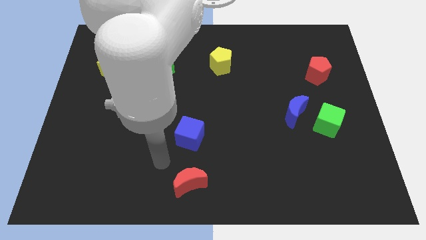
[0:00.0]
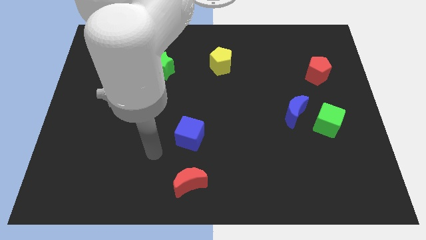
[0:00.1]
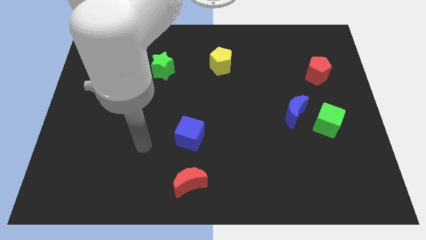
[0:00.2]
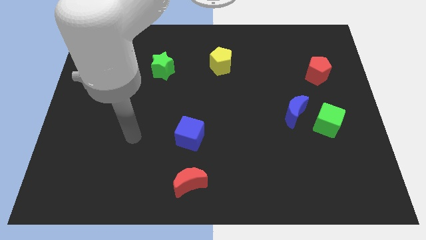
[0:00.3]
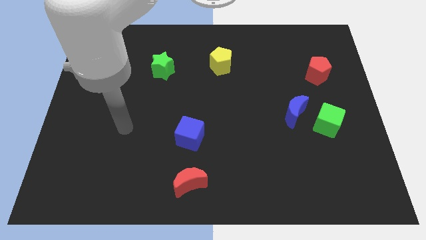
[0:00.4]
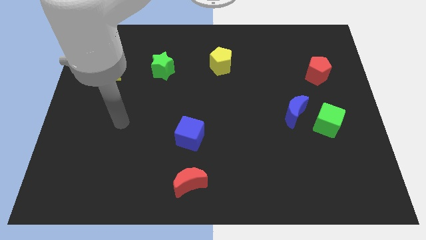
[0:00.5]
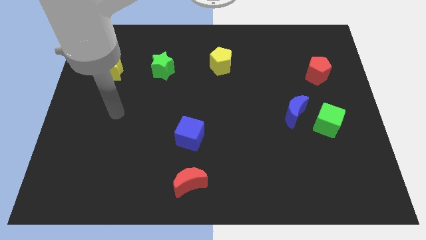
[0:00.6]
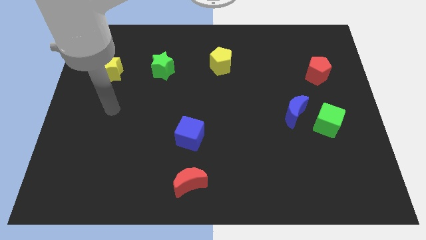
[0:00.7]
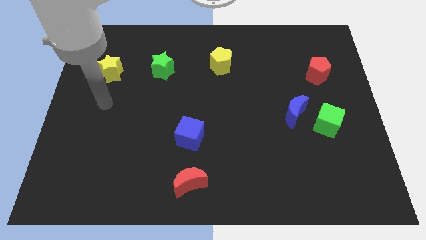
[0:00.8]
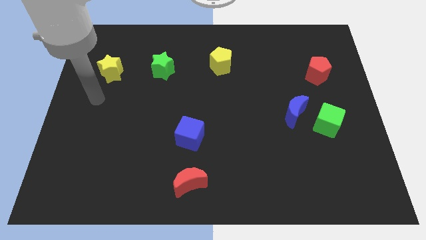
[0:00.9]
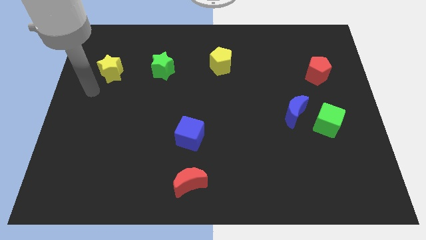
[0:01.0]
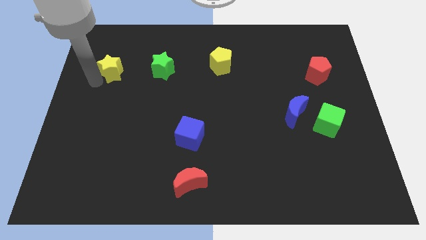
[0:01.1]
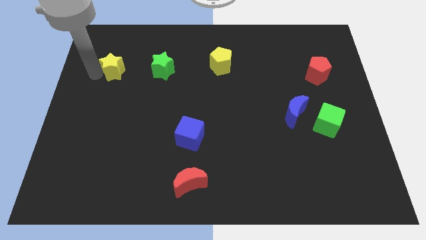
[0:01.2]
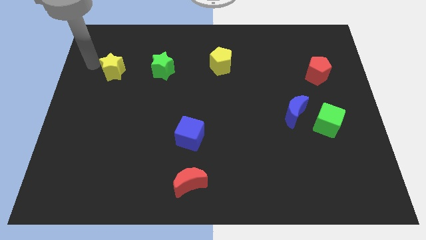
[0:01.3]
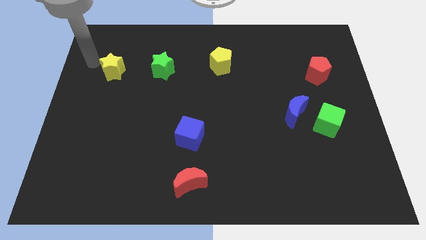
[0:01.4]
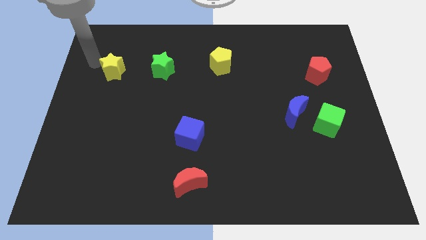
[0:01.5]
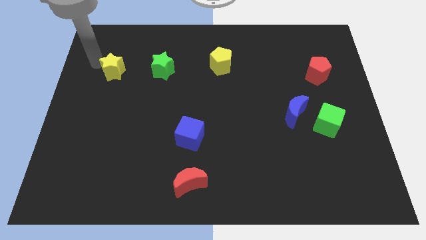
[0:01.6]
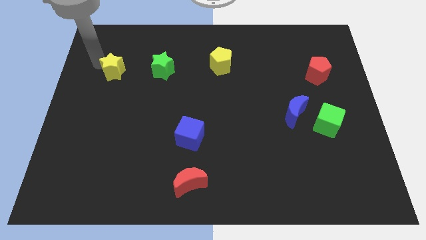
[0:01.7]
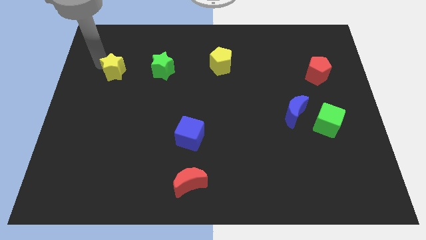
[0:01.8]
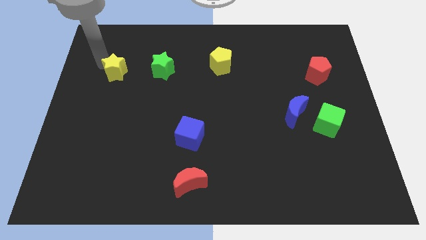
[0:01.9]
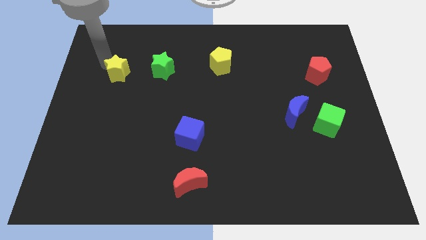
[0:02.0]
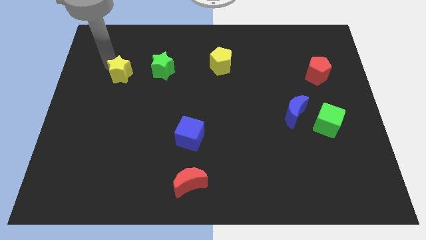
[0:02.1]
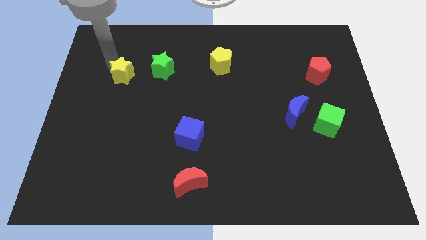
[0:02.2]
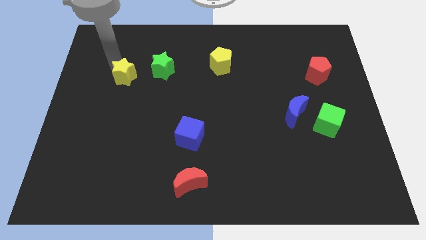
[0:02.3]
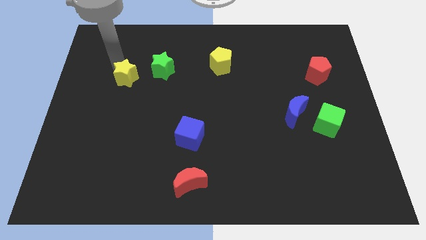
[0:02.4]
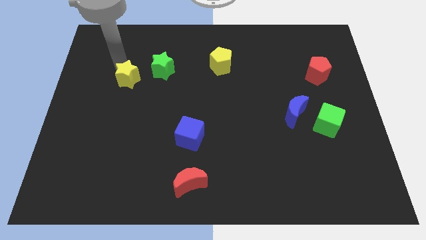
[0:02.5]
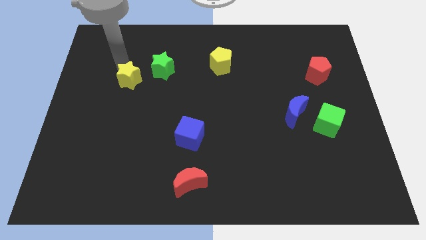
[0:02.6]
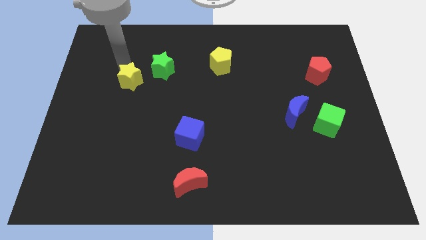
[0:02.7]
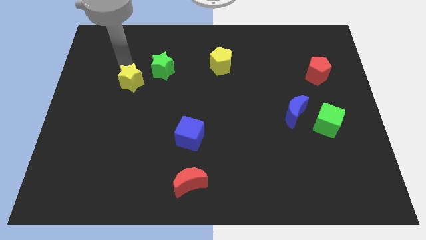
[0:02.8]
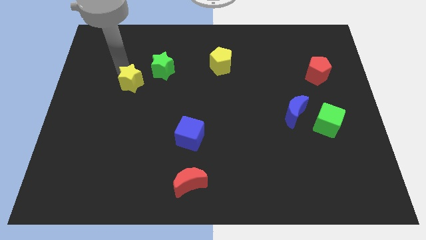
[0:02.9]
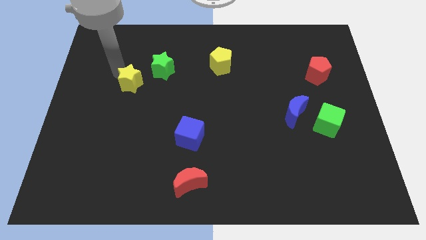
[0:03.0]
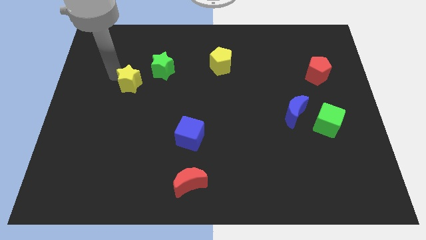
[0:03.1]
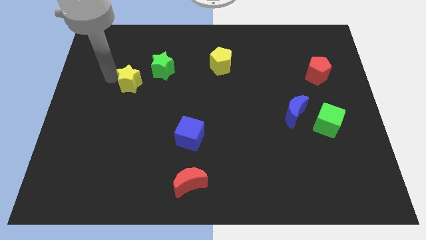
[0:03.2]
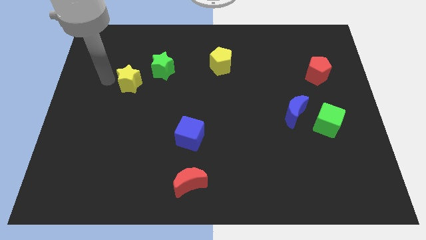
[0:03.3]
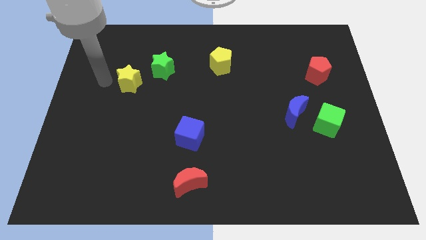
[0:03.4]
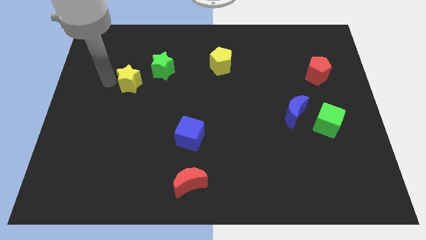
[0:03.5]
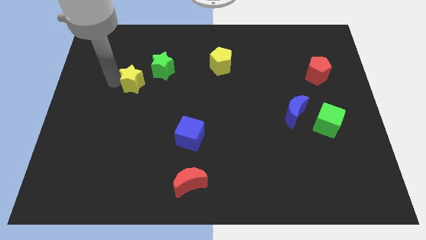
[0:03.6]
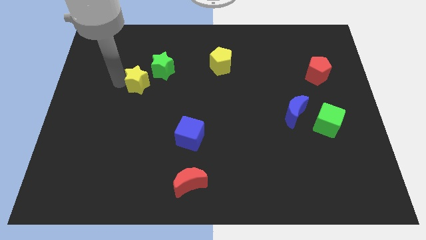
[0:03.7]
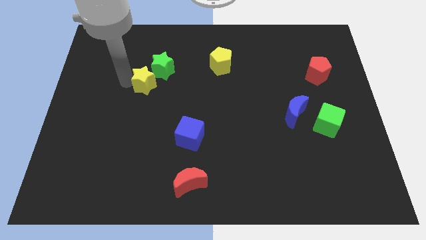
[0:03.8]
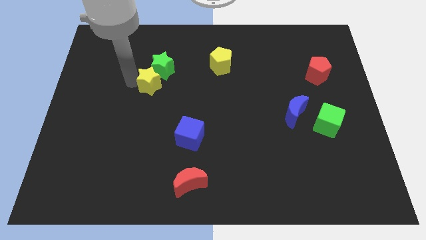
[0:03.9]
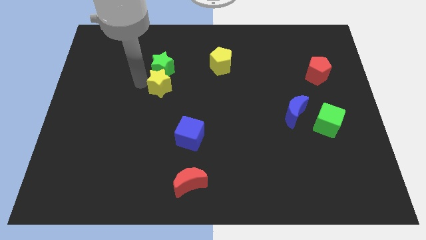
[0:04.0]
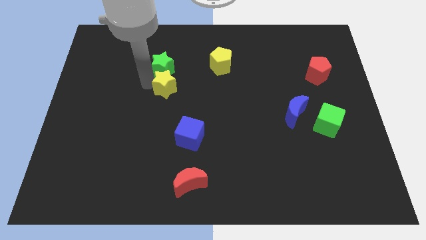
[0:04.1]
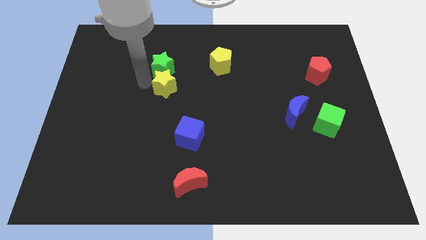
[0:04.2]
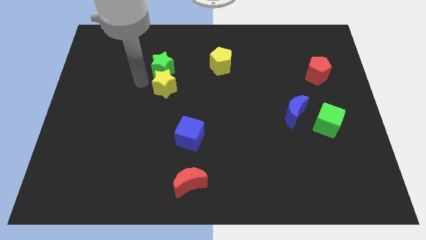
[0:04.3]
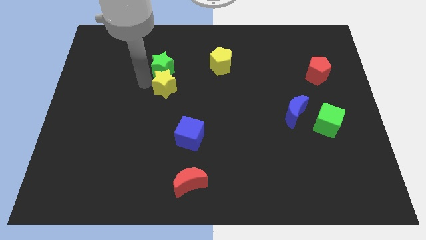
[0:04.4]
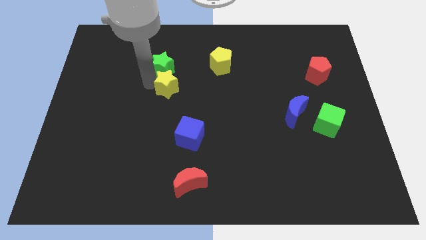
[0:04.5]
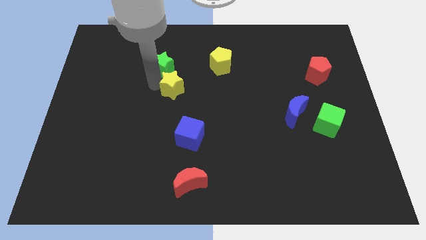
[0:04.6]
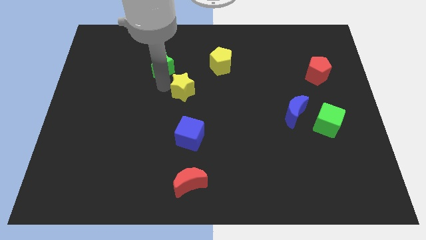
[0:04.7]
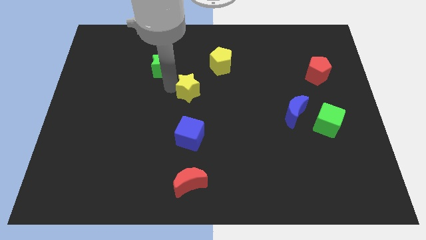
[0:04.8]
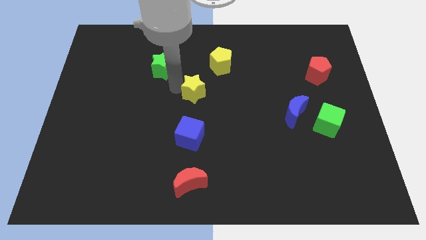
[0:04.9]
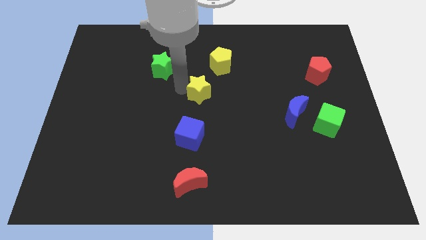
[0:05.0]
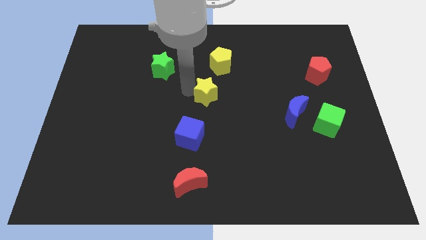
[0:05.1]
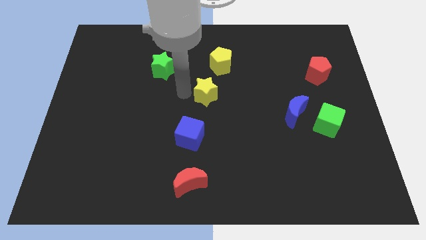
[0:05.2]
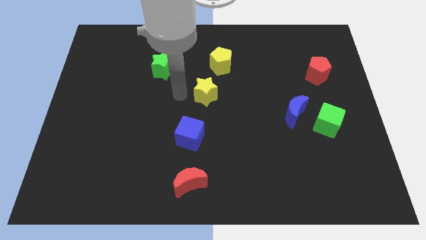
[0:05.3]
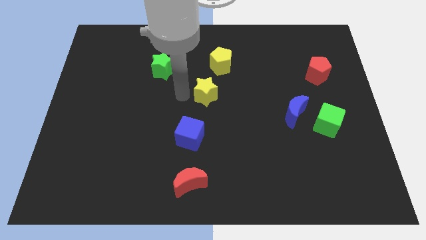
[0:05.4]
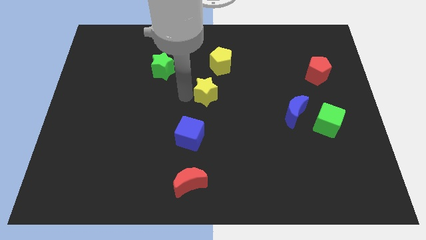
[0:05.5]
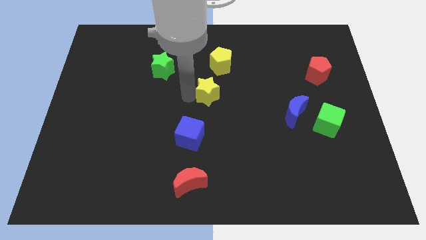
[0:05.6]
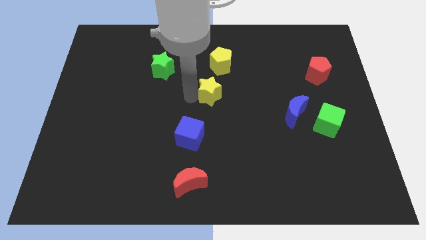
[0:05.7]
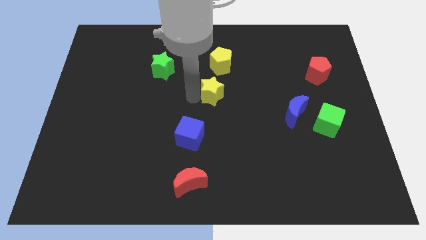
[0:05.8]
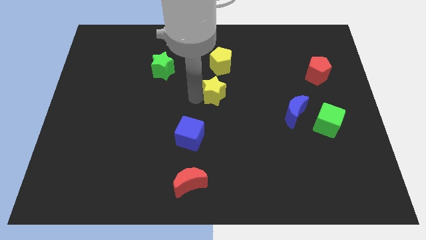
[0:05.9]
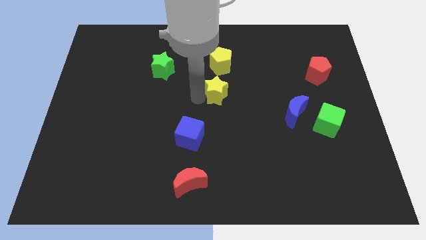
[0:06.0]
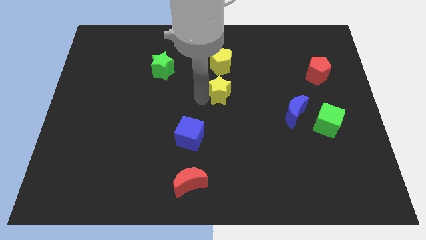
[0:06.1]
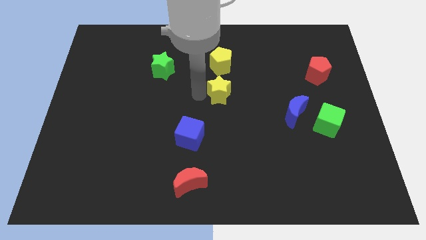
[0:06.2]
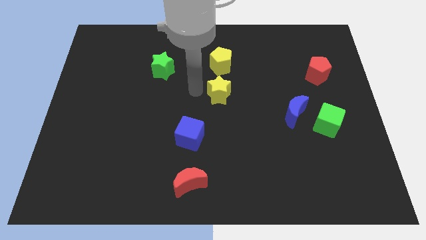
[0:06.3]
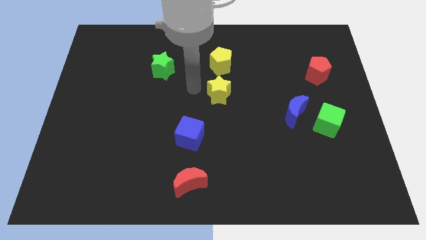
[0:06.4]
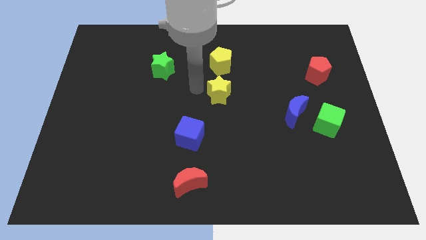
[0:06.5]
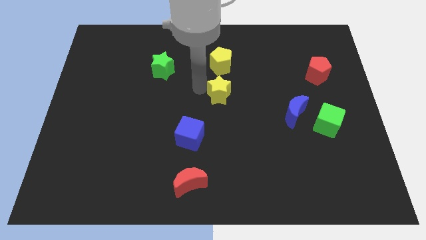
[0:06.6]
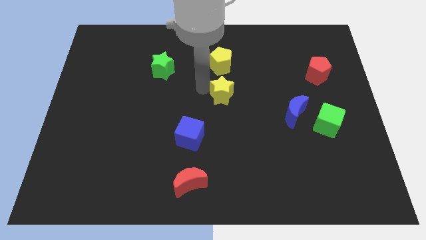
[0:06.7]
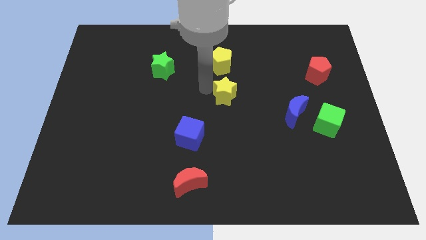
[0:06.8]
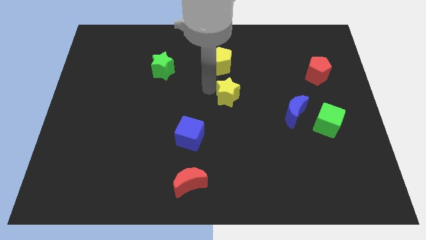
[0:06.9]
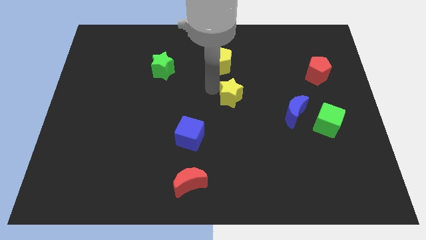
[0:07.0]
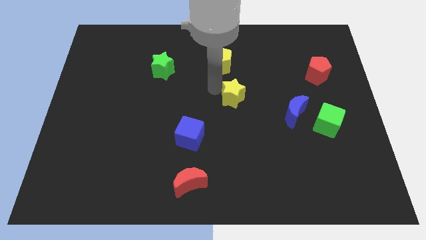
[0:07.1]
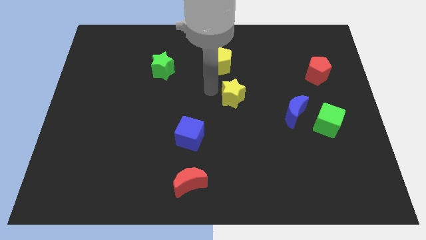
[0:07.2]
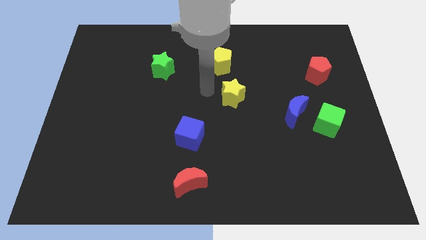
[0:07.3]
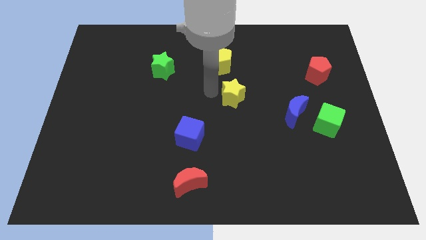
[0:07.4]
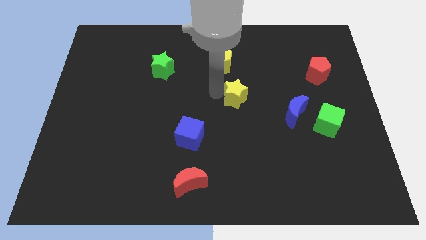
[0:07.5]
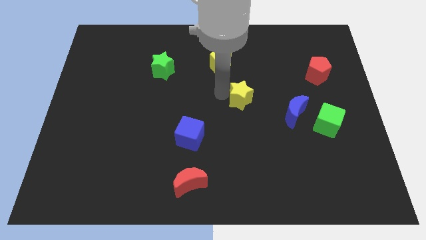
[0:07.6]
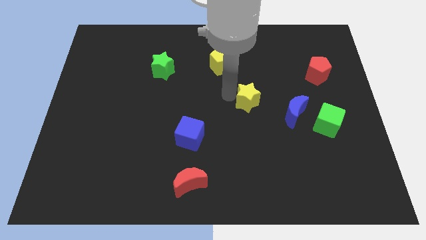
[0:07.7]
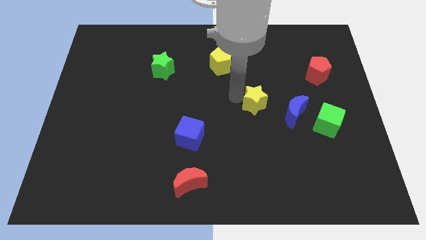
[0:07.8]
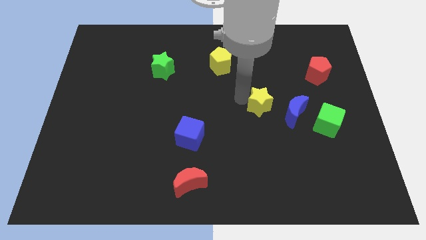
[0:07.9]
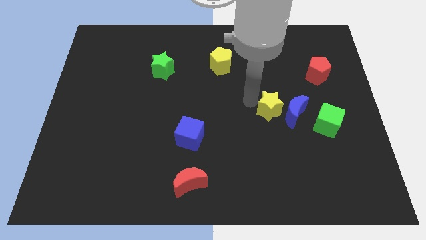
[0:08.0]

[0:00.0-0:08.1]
slide the yellow star next to the blue moon
